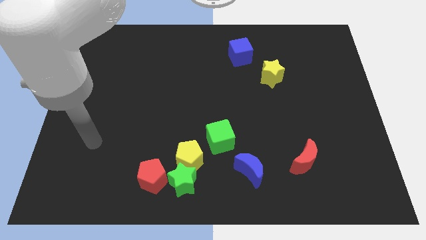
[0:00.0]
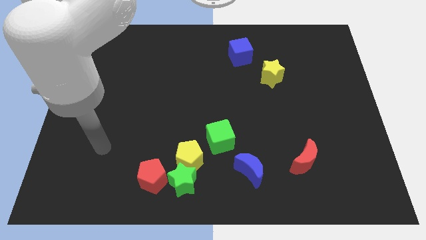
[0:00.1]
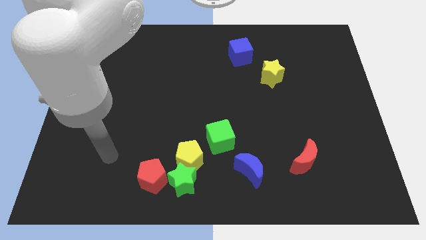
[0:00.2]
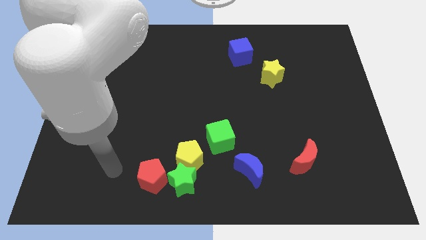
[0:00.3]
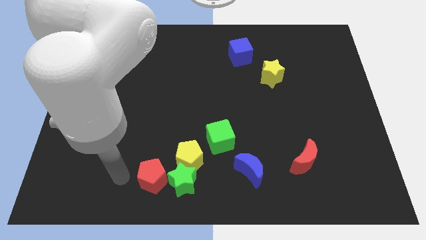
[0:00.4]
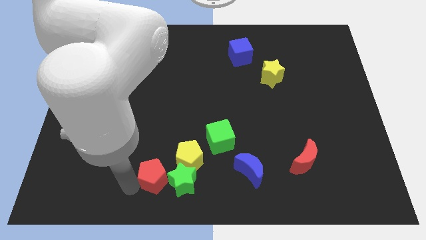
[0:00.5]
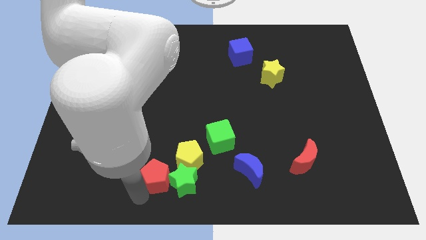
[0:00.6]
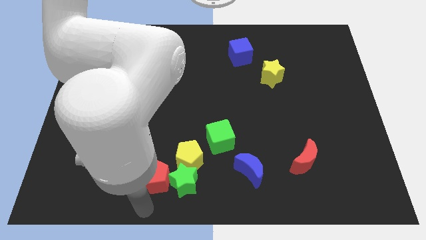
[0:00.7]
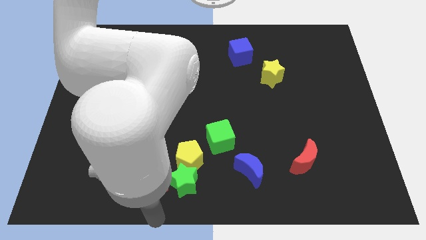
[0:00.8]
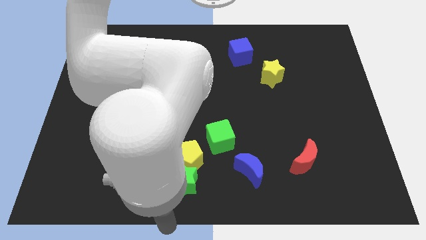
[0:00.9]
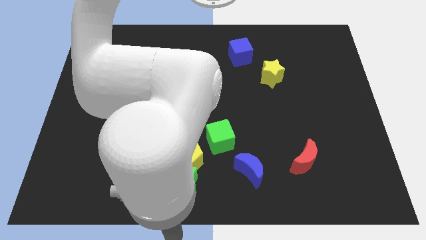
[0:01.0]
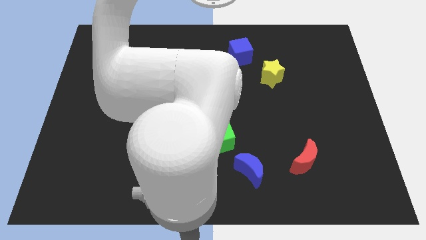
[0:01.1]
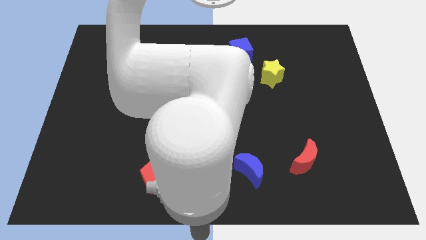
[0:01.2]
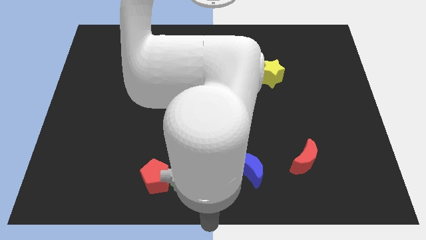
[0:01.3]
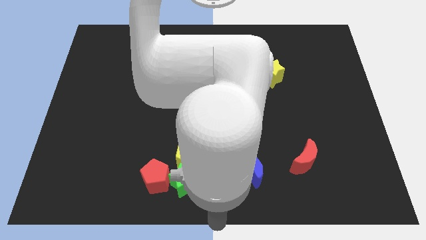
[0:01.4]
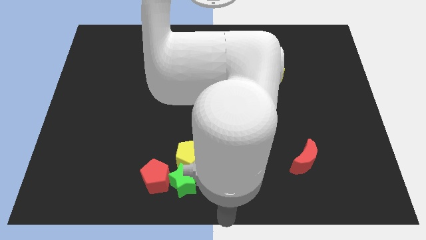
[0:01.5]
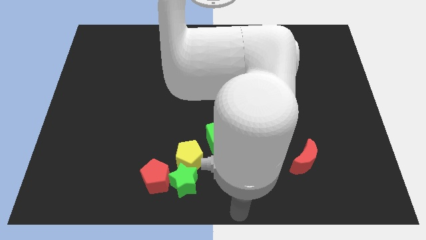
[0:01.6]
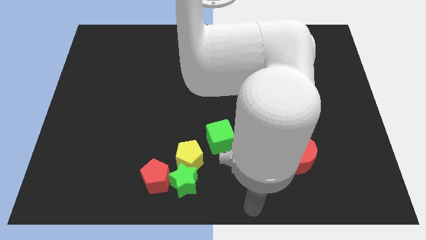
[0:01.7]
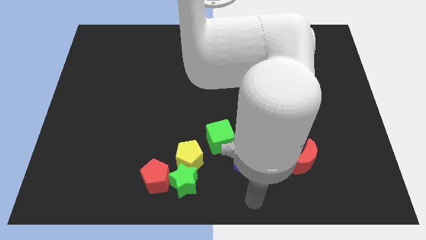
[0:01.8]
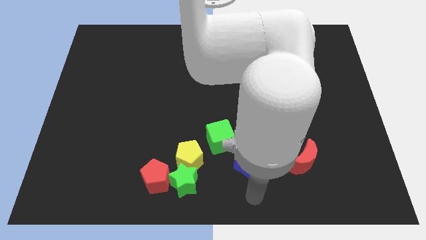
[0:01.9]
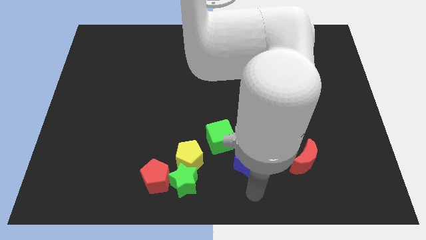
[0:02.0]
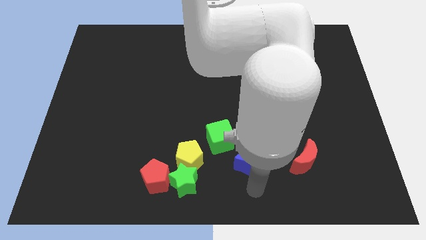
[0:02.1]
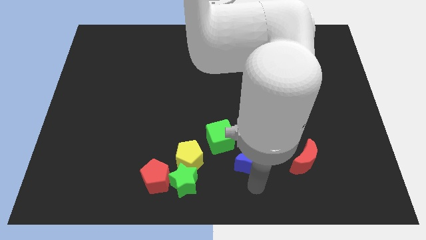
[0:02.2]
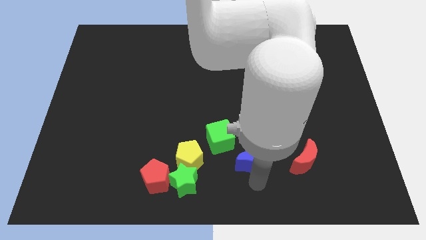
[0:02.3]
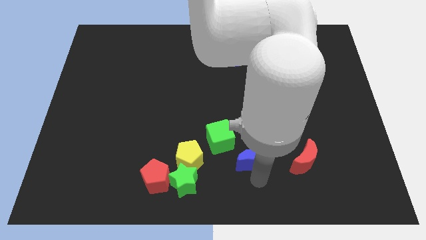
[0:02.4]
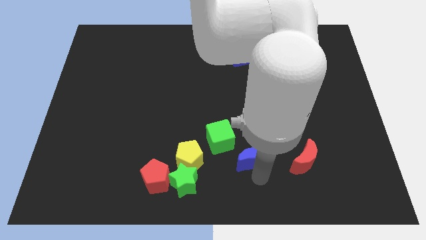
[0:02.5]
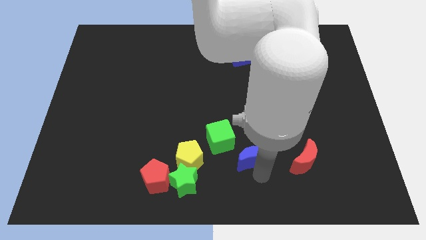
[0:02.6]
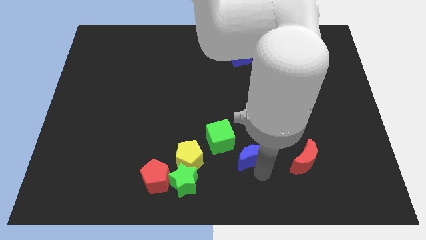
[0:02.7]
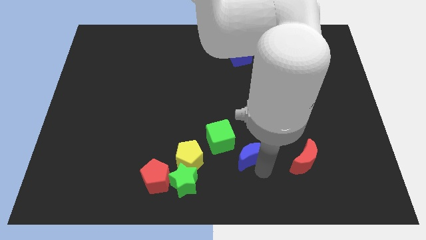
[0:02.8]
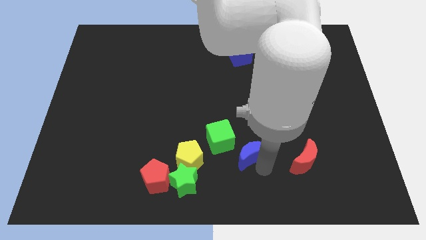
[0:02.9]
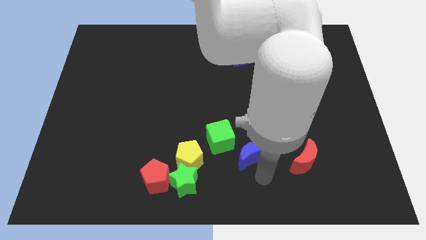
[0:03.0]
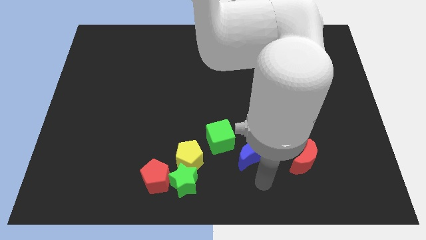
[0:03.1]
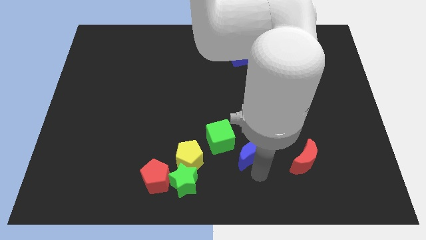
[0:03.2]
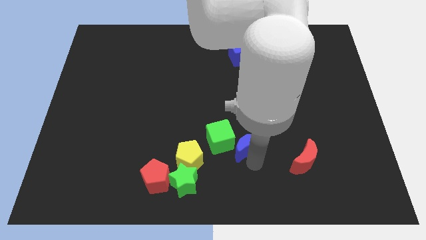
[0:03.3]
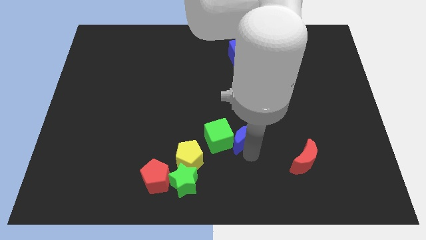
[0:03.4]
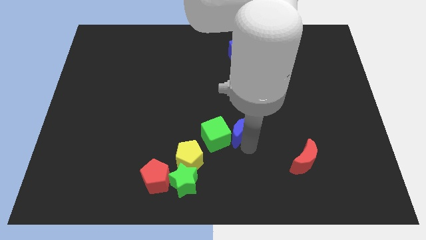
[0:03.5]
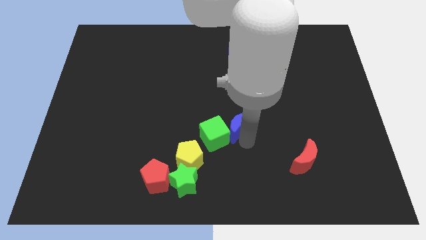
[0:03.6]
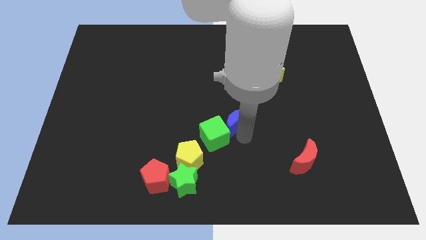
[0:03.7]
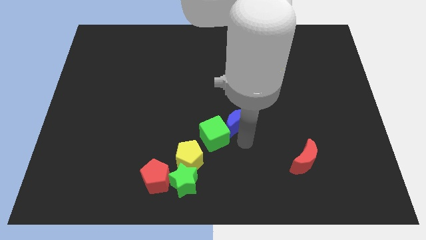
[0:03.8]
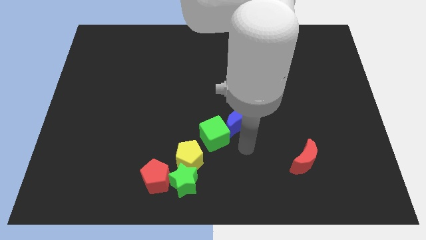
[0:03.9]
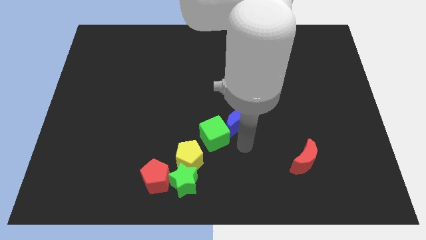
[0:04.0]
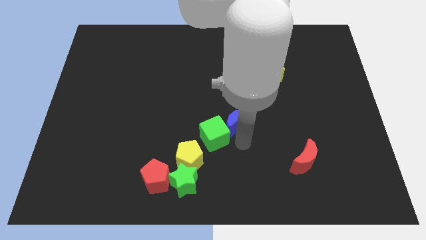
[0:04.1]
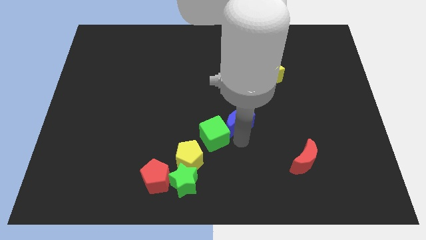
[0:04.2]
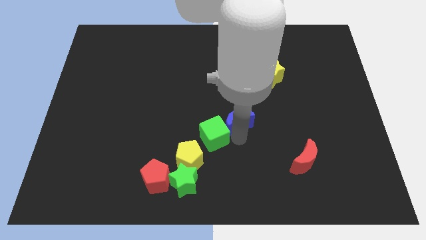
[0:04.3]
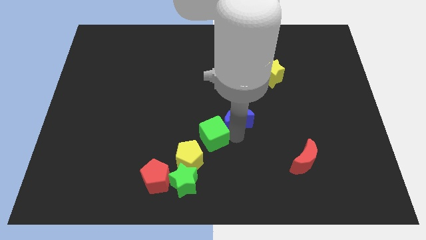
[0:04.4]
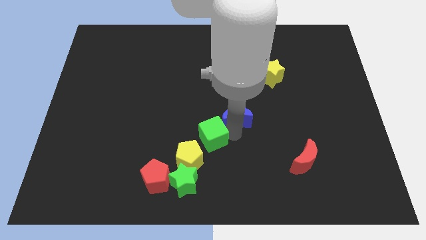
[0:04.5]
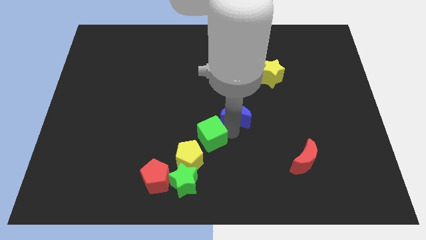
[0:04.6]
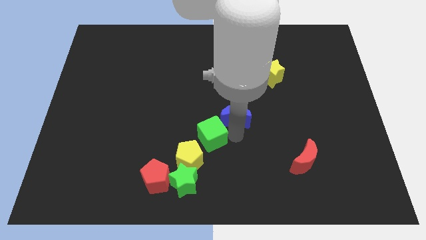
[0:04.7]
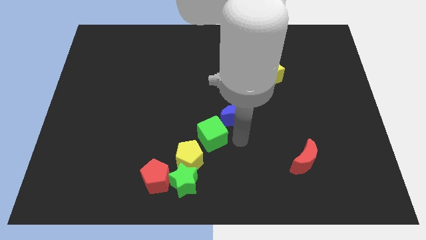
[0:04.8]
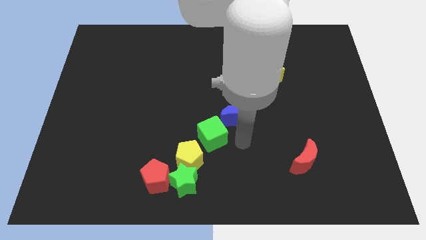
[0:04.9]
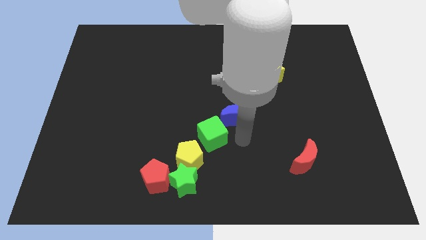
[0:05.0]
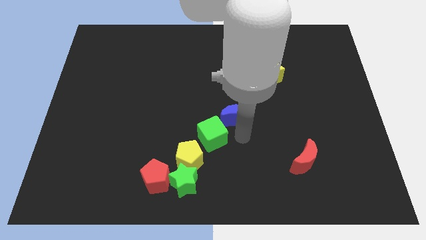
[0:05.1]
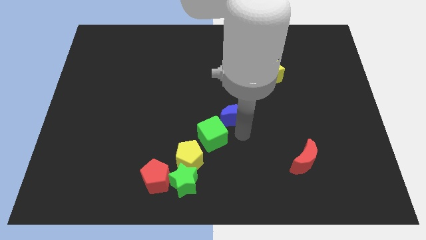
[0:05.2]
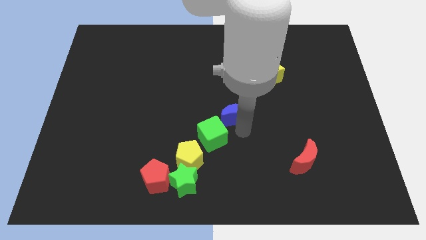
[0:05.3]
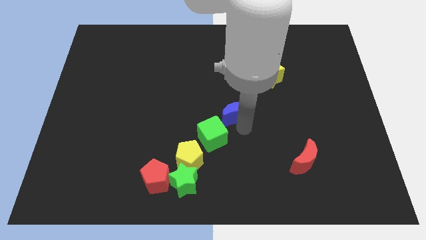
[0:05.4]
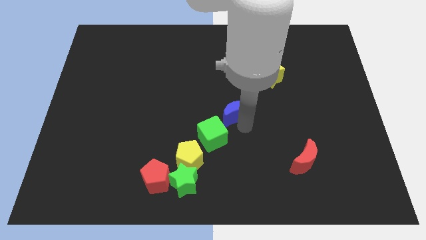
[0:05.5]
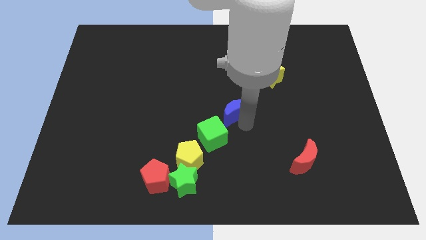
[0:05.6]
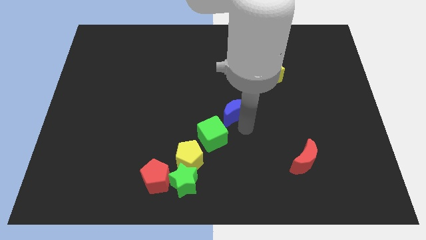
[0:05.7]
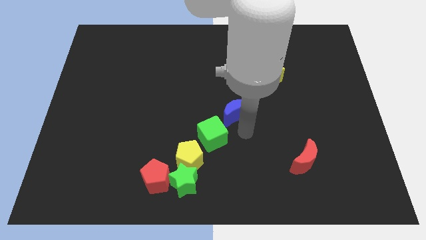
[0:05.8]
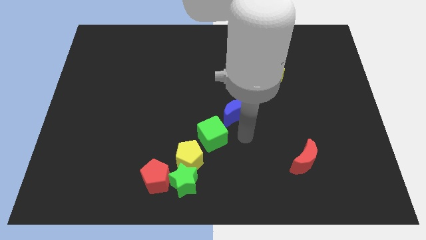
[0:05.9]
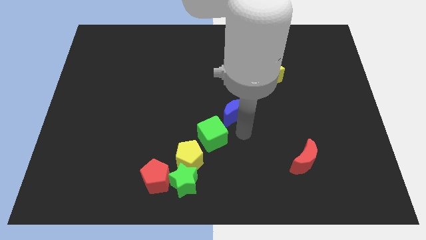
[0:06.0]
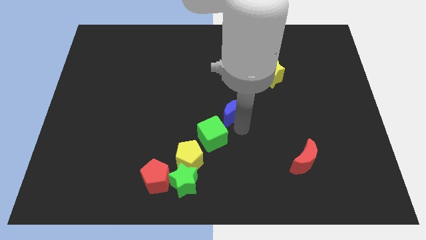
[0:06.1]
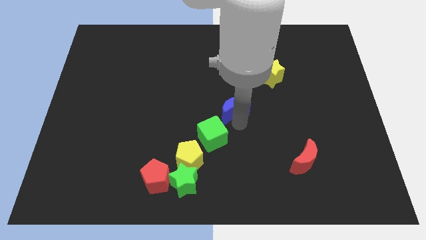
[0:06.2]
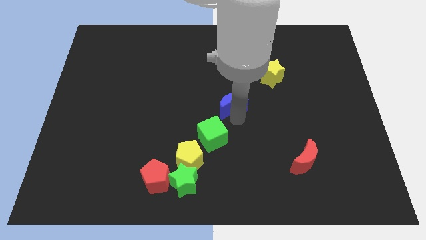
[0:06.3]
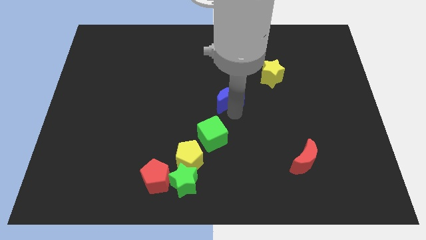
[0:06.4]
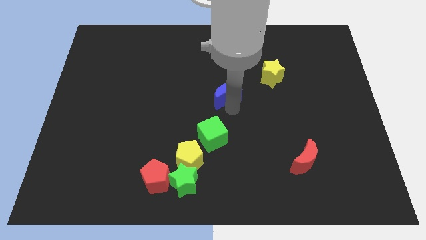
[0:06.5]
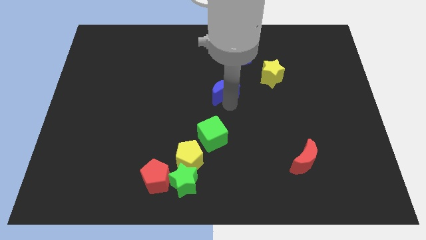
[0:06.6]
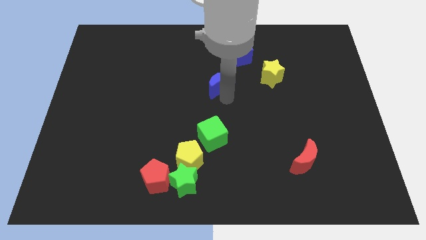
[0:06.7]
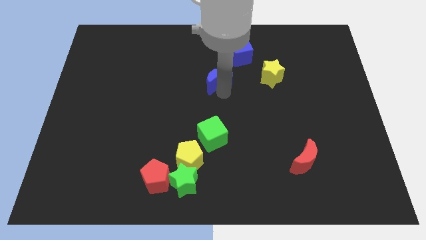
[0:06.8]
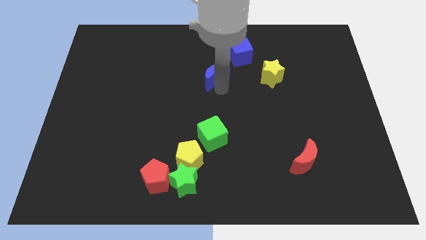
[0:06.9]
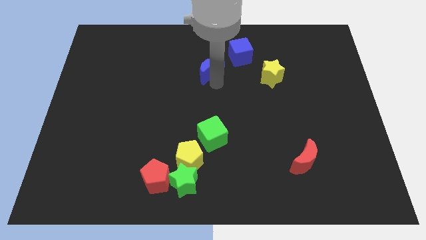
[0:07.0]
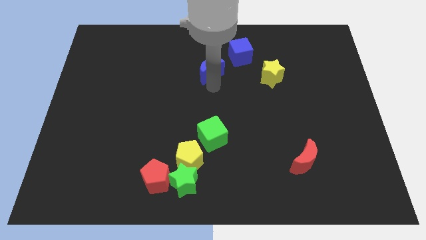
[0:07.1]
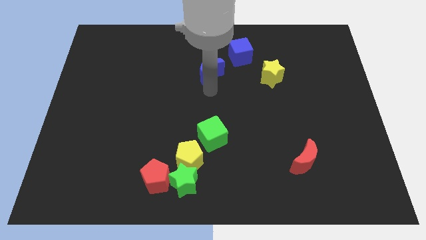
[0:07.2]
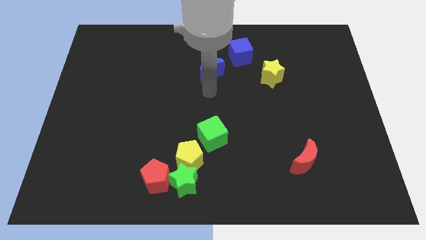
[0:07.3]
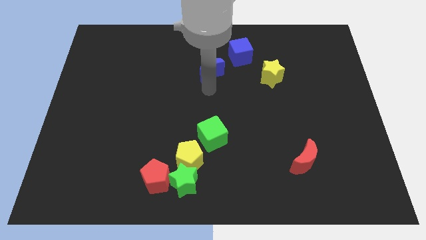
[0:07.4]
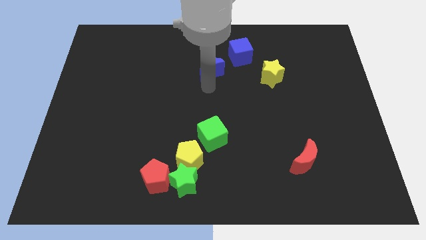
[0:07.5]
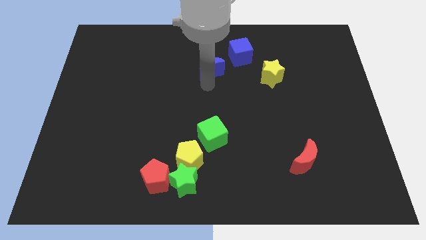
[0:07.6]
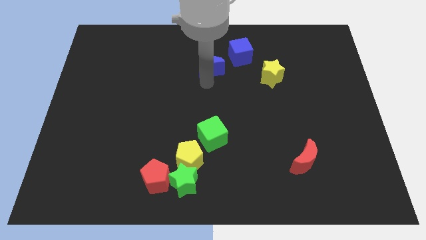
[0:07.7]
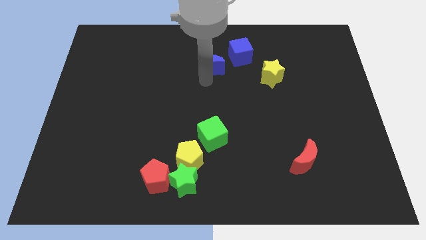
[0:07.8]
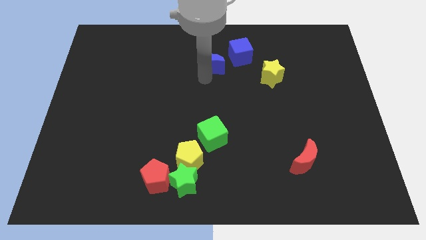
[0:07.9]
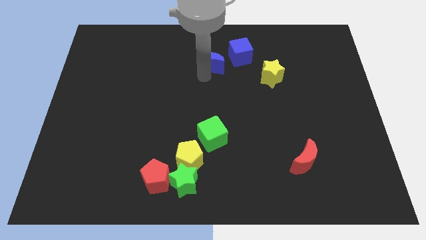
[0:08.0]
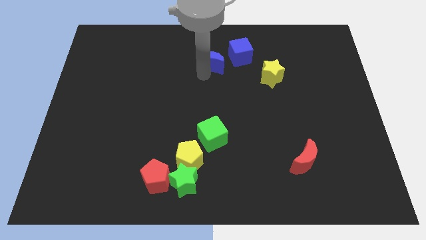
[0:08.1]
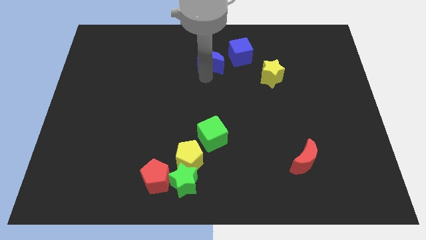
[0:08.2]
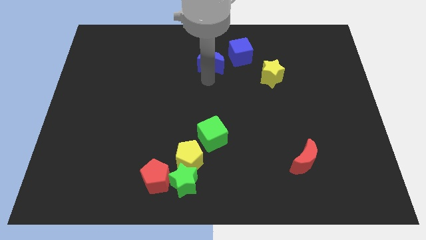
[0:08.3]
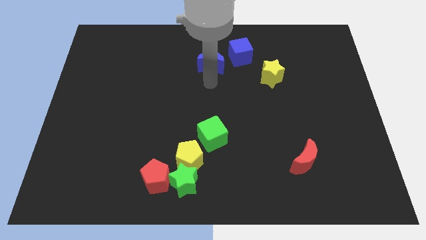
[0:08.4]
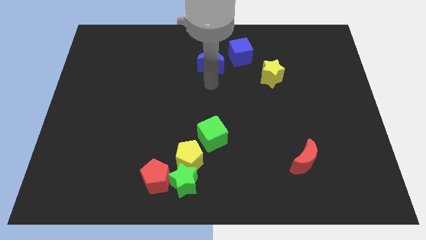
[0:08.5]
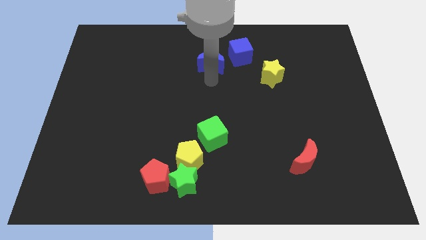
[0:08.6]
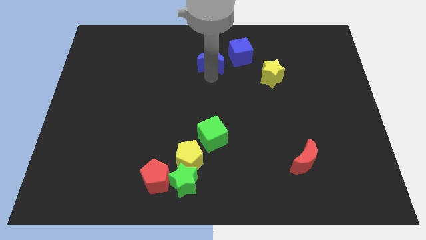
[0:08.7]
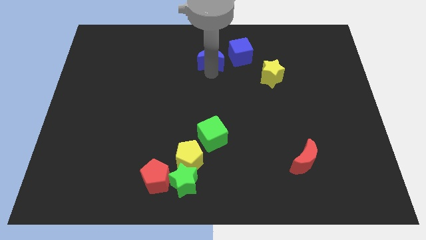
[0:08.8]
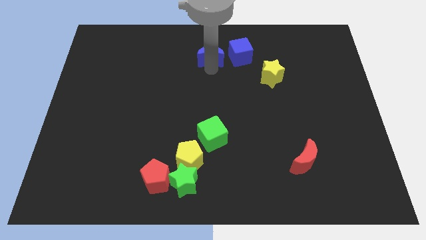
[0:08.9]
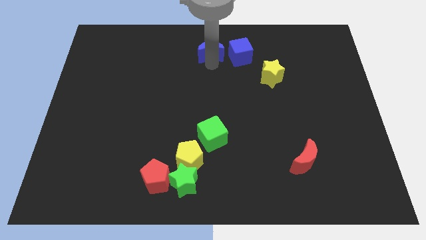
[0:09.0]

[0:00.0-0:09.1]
slide the blue moon to the top
